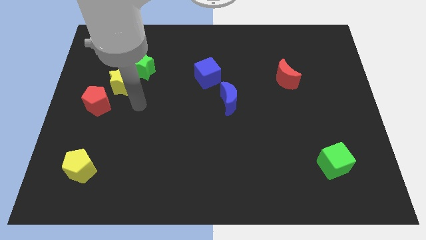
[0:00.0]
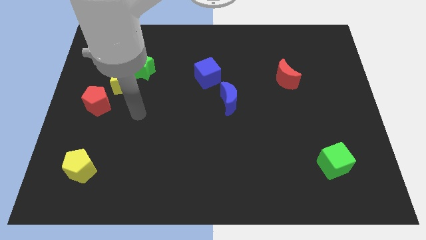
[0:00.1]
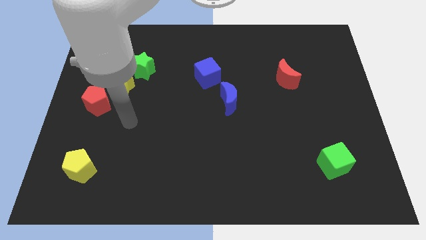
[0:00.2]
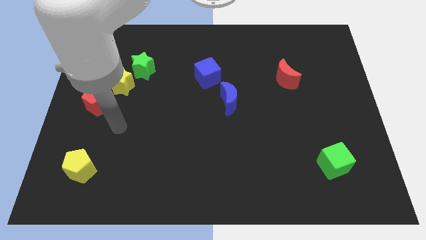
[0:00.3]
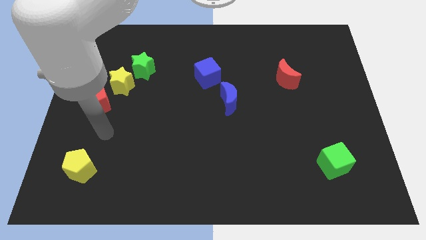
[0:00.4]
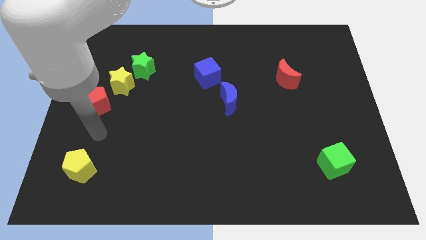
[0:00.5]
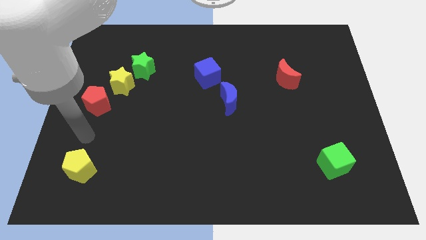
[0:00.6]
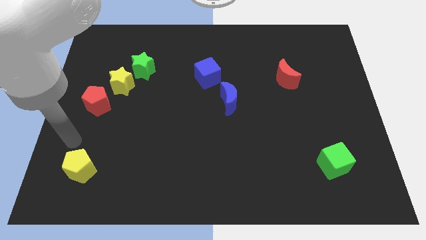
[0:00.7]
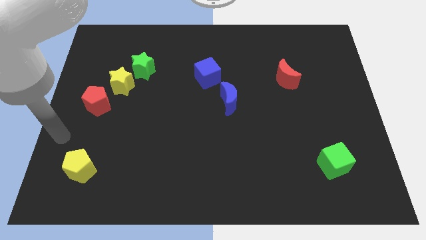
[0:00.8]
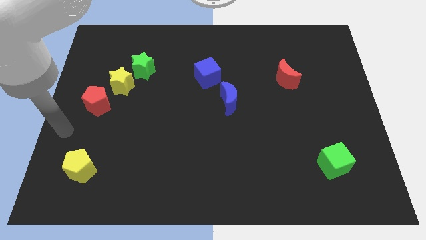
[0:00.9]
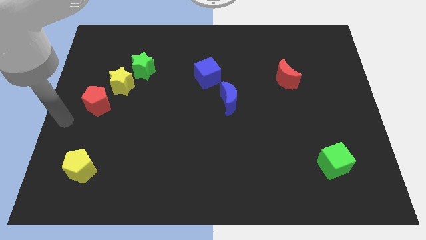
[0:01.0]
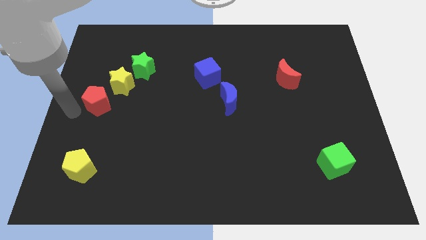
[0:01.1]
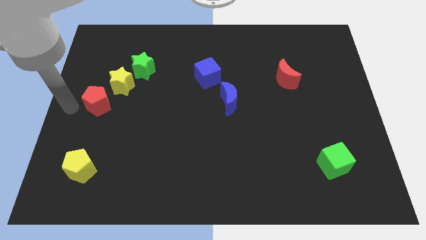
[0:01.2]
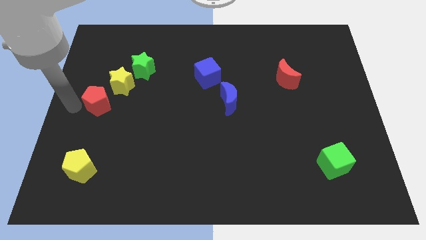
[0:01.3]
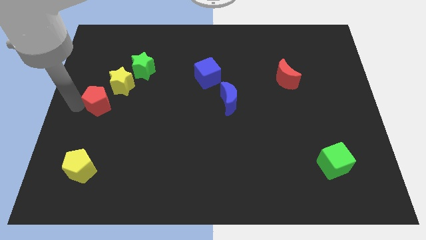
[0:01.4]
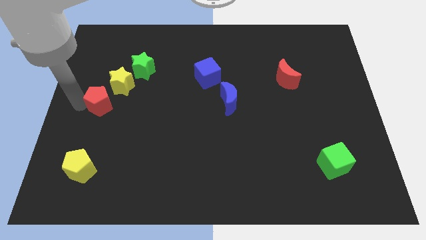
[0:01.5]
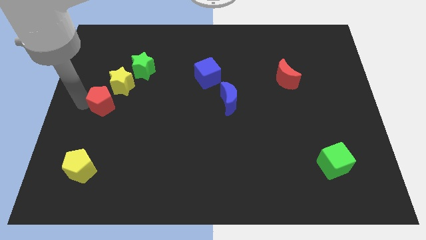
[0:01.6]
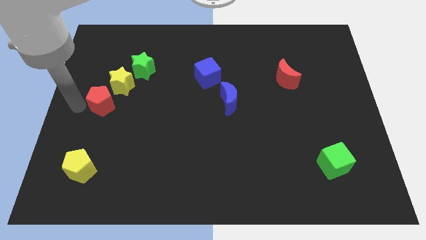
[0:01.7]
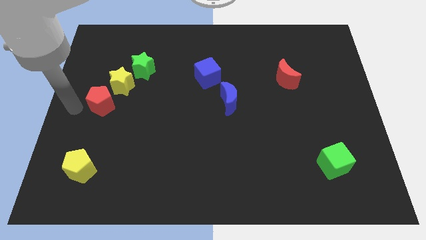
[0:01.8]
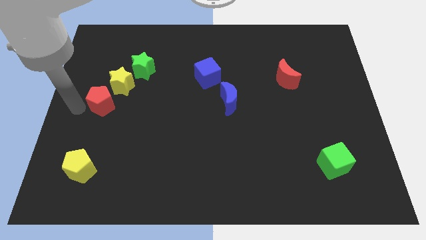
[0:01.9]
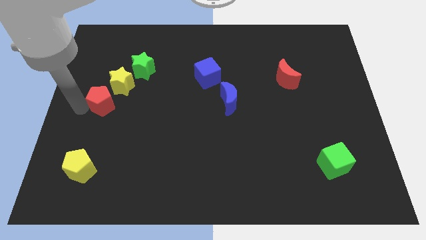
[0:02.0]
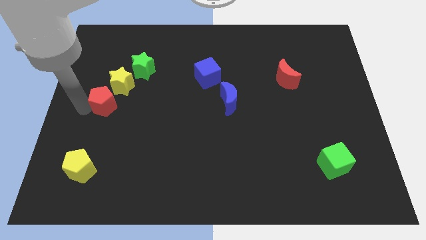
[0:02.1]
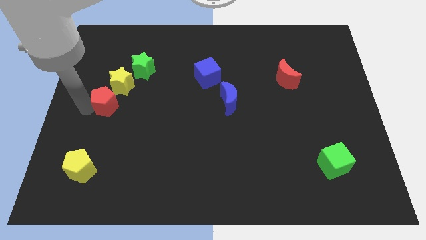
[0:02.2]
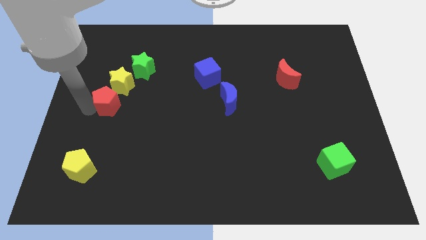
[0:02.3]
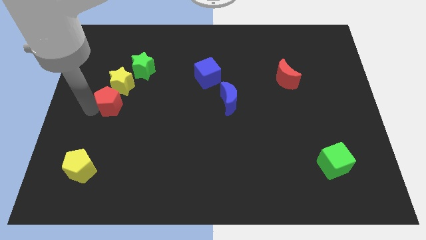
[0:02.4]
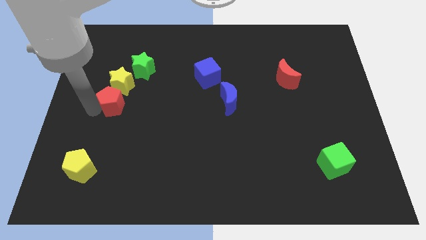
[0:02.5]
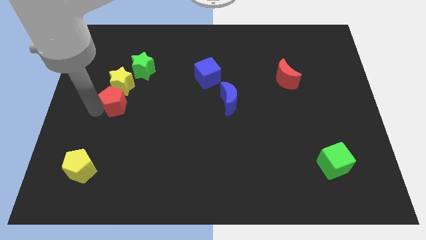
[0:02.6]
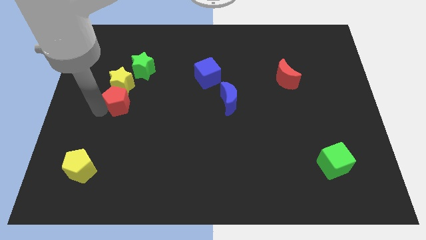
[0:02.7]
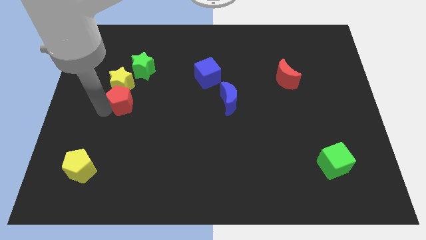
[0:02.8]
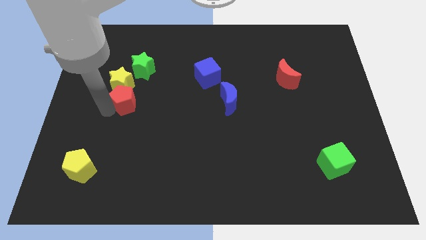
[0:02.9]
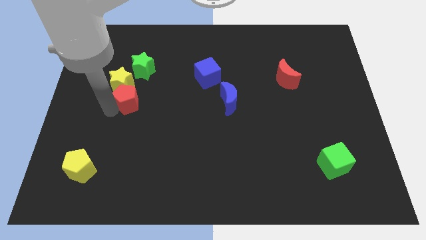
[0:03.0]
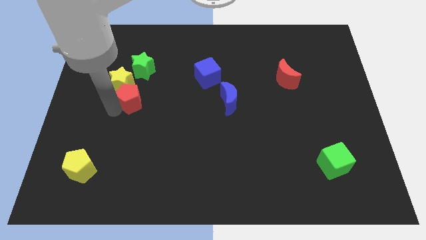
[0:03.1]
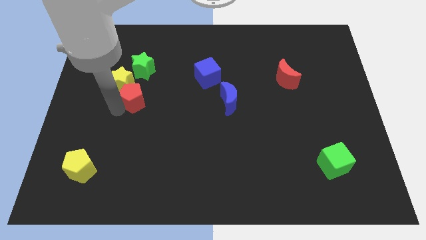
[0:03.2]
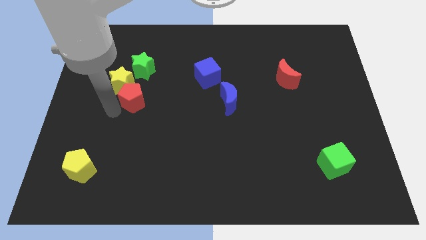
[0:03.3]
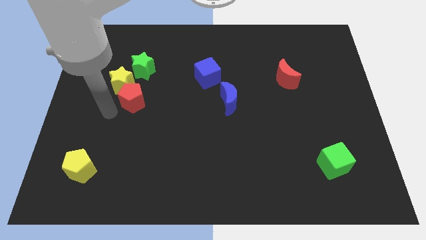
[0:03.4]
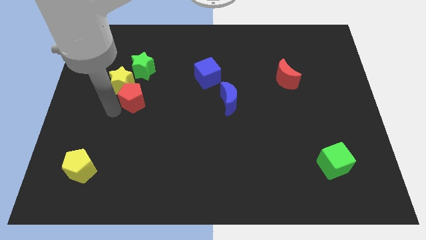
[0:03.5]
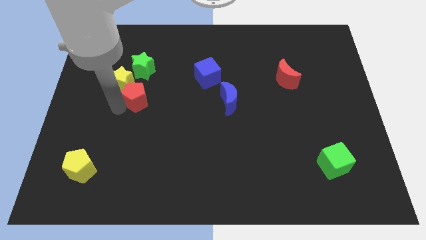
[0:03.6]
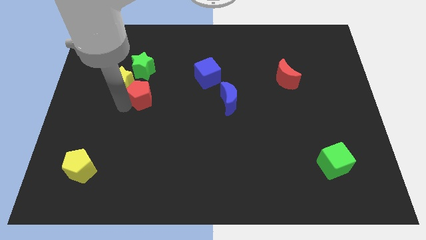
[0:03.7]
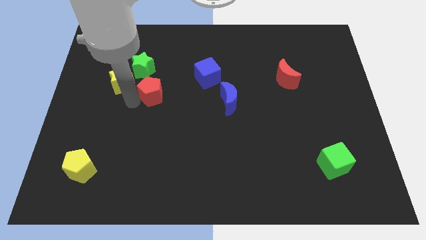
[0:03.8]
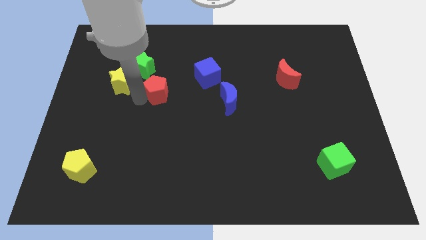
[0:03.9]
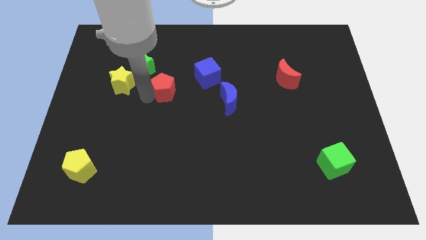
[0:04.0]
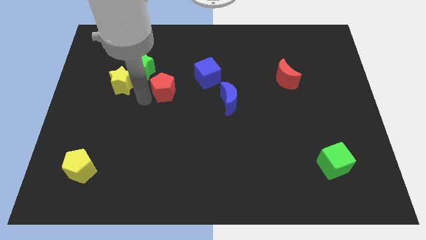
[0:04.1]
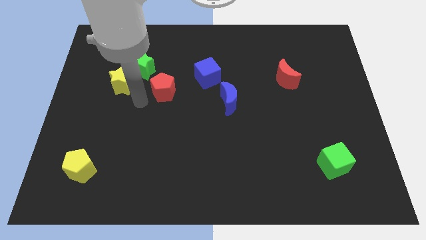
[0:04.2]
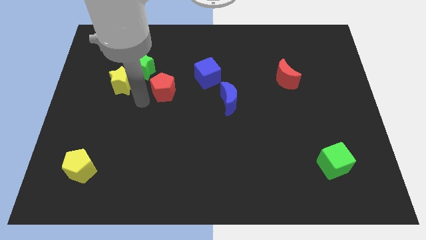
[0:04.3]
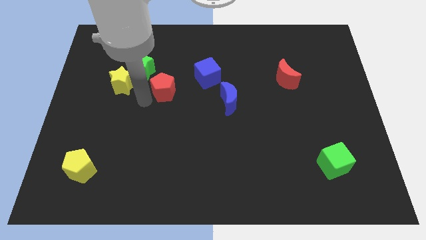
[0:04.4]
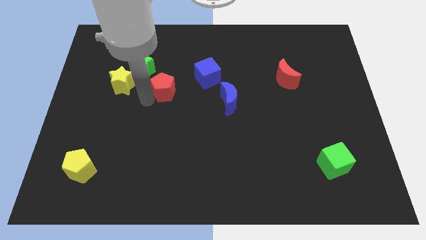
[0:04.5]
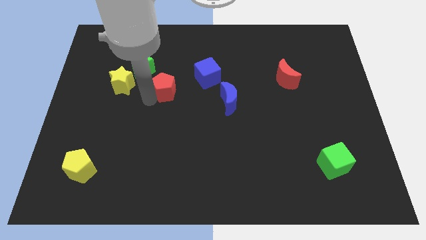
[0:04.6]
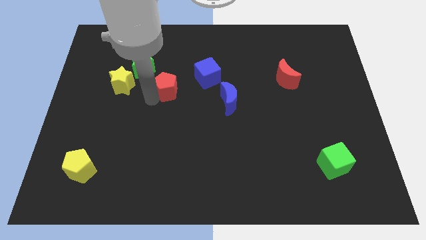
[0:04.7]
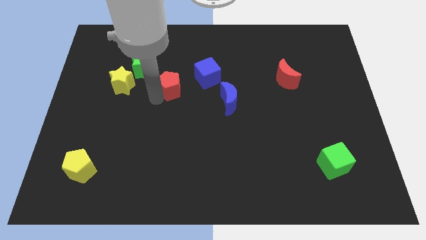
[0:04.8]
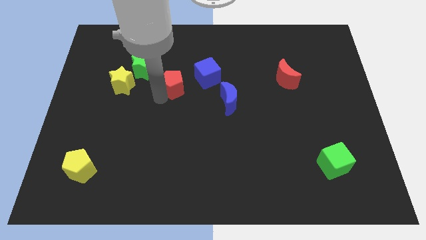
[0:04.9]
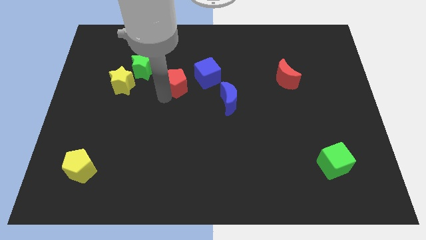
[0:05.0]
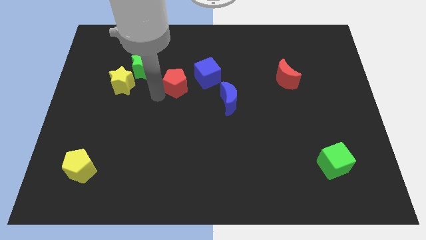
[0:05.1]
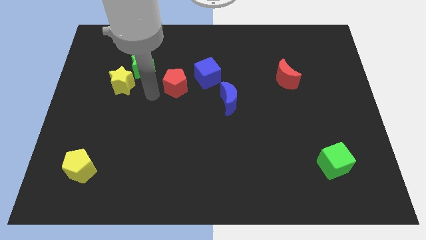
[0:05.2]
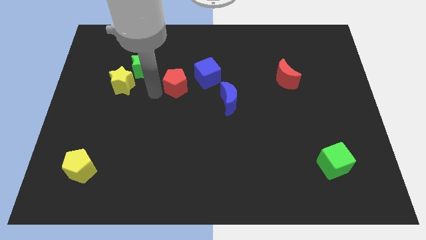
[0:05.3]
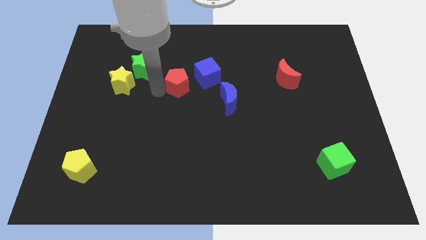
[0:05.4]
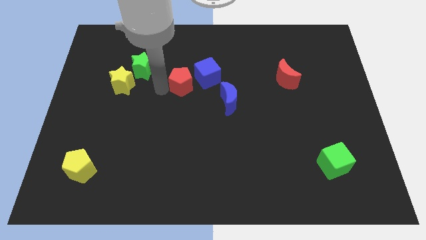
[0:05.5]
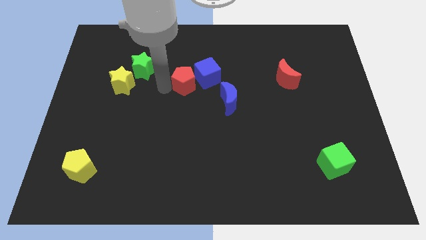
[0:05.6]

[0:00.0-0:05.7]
move the red pentagon close to the blue cube
